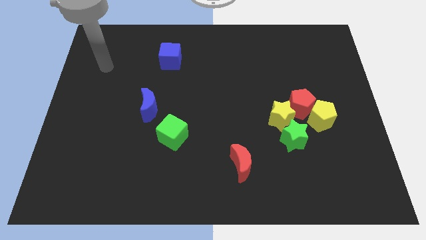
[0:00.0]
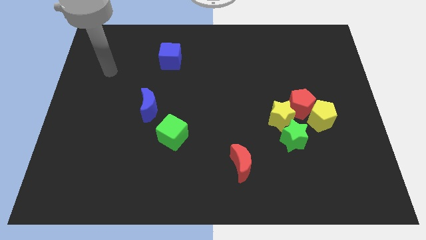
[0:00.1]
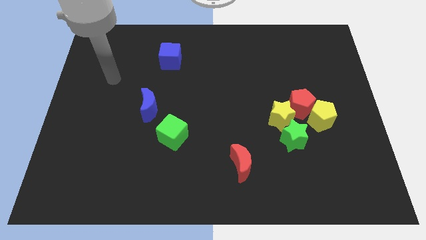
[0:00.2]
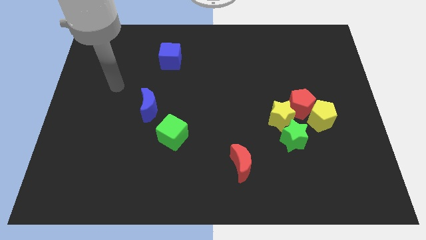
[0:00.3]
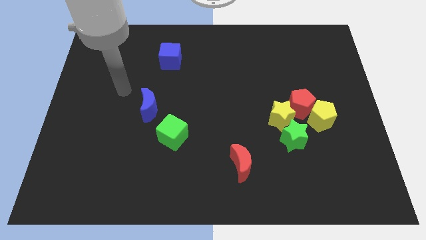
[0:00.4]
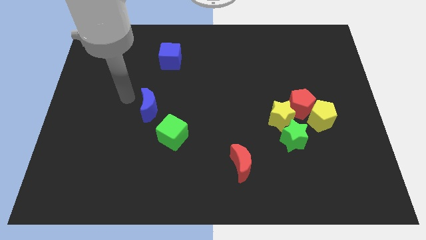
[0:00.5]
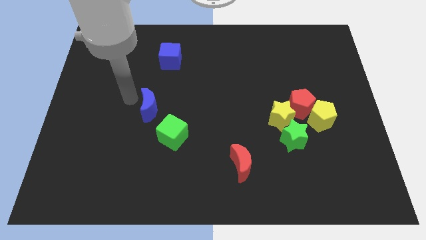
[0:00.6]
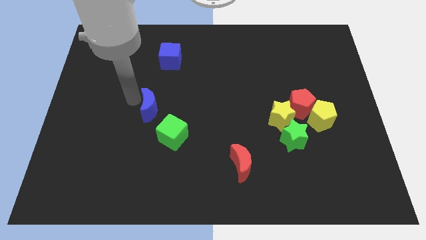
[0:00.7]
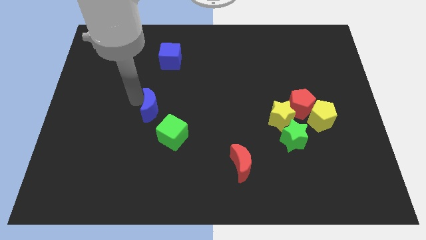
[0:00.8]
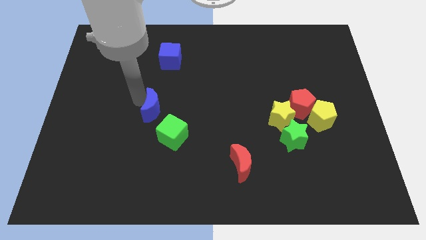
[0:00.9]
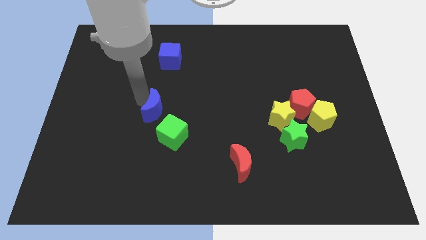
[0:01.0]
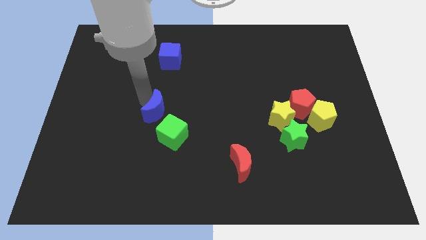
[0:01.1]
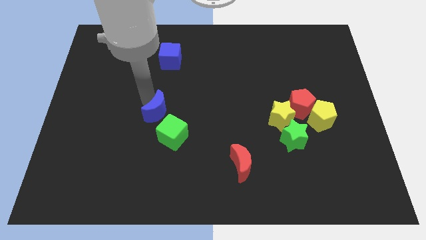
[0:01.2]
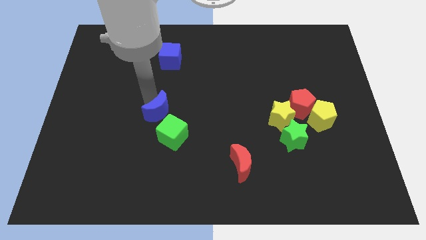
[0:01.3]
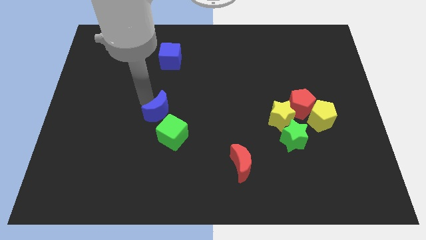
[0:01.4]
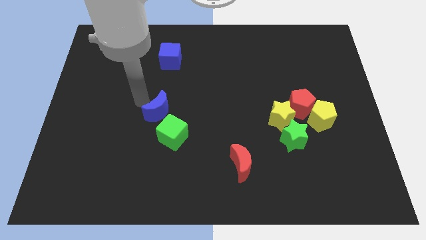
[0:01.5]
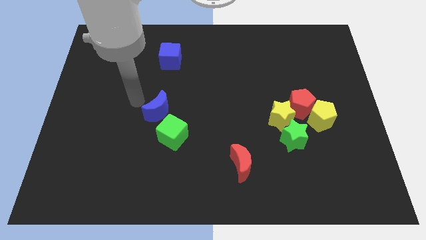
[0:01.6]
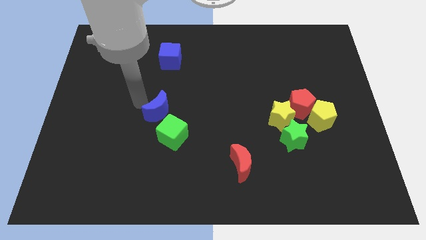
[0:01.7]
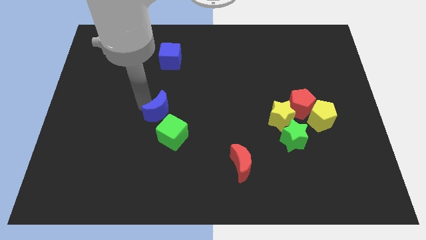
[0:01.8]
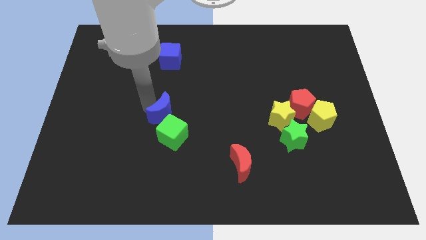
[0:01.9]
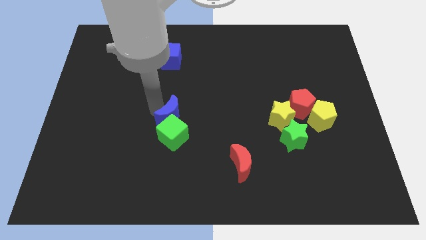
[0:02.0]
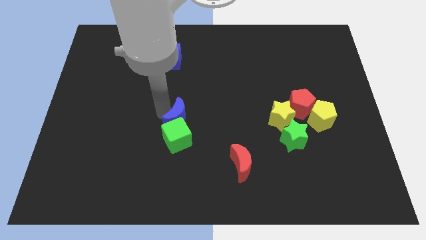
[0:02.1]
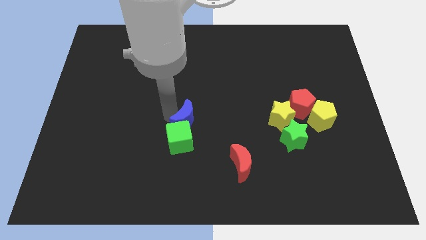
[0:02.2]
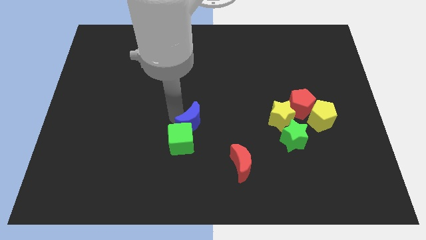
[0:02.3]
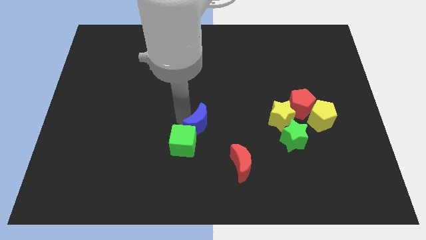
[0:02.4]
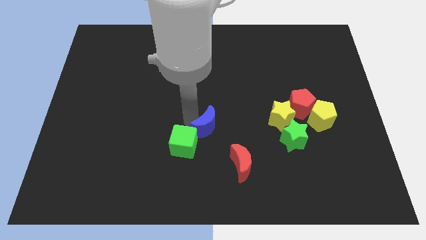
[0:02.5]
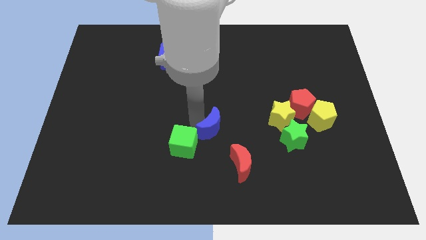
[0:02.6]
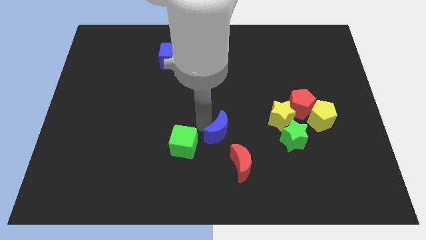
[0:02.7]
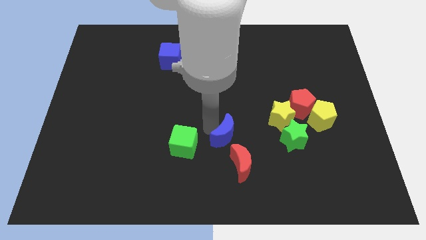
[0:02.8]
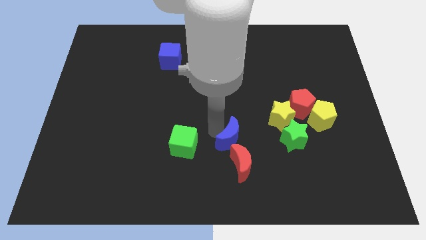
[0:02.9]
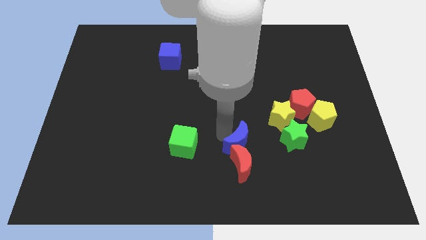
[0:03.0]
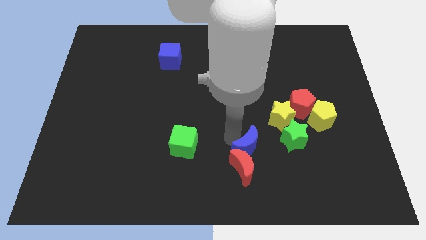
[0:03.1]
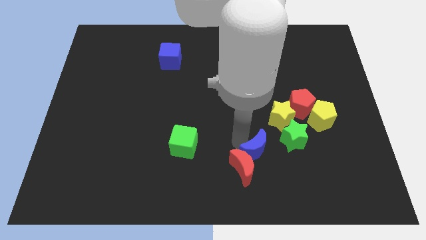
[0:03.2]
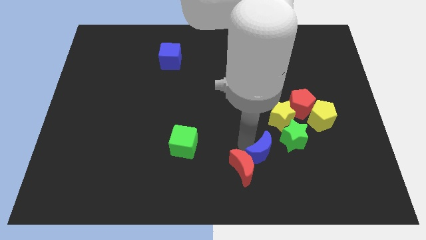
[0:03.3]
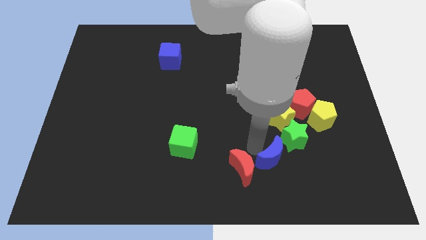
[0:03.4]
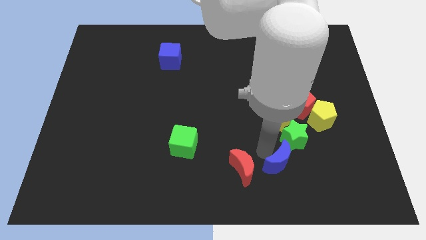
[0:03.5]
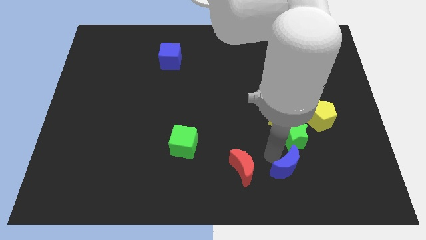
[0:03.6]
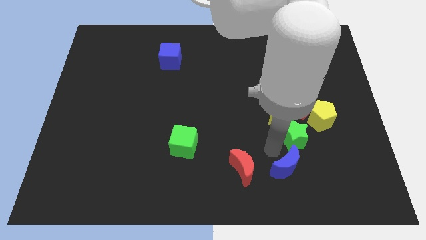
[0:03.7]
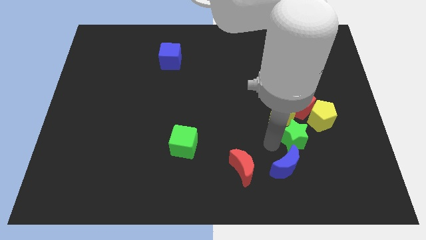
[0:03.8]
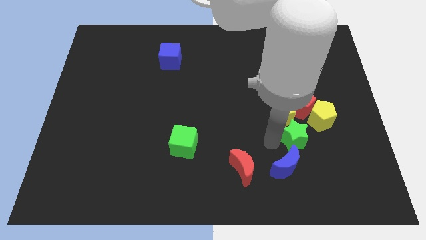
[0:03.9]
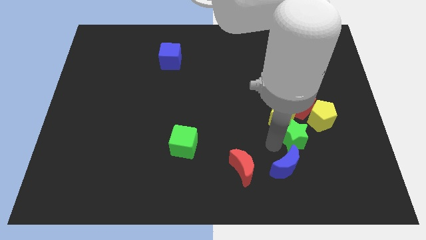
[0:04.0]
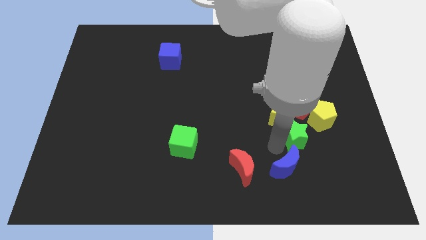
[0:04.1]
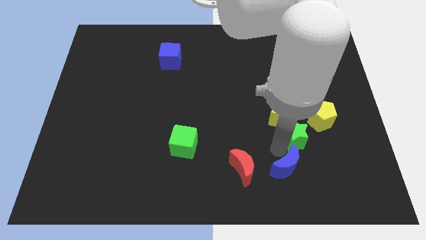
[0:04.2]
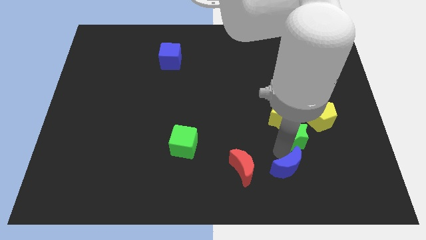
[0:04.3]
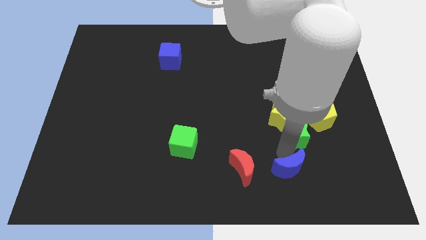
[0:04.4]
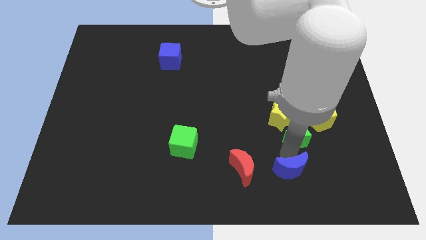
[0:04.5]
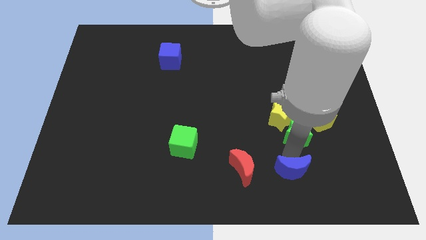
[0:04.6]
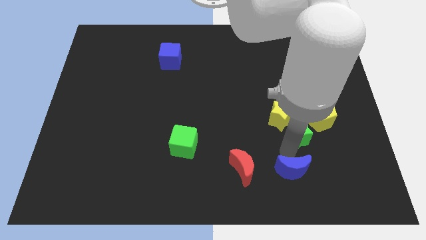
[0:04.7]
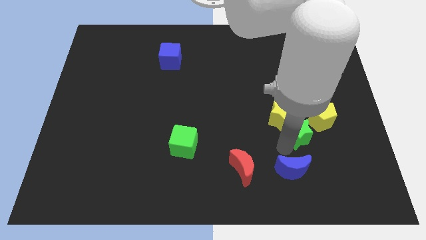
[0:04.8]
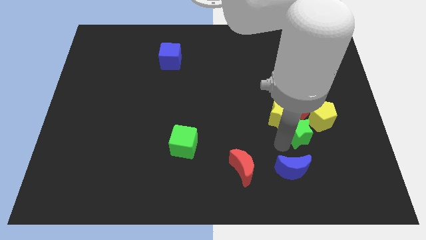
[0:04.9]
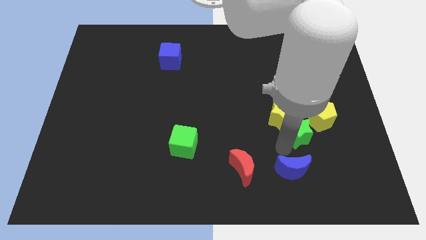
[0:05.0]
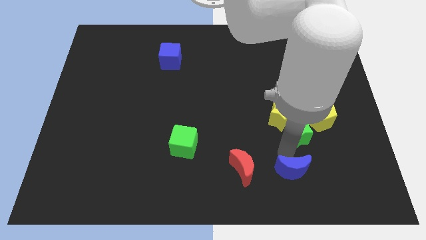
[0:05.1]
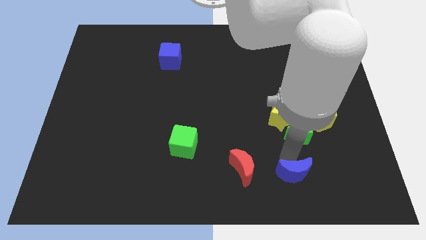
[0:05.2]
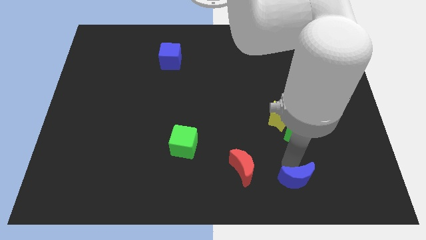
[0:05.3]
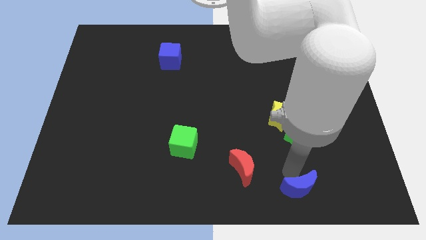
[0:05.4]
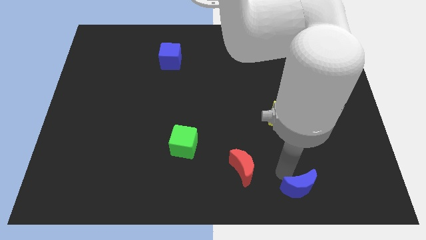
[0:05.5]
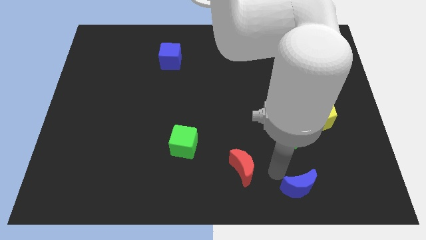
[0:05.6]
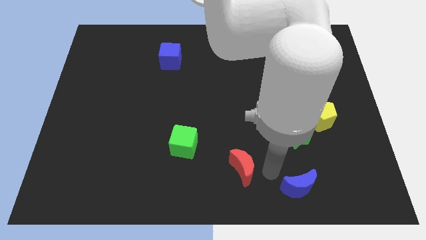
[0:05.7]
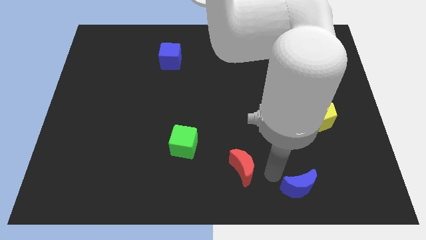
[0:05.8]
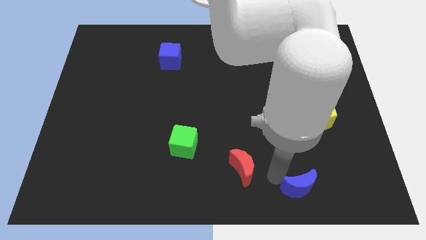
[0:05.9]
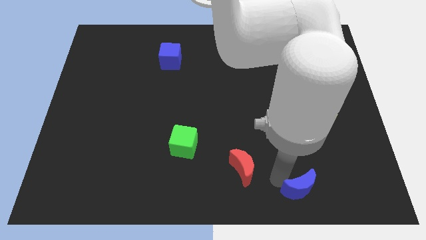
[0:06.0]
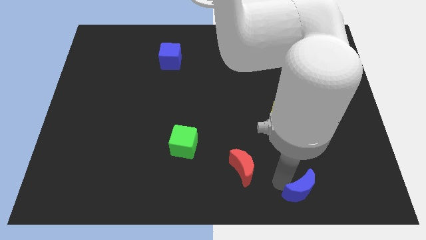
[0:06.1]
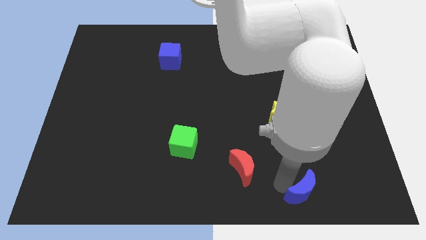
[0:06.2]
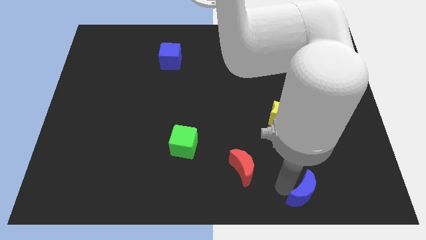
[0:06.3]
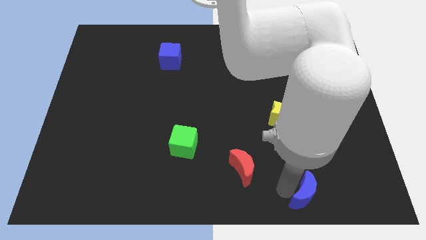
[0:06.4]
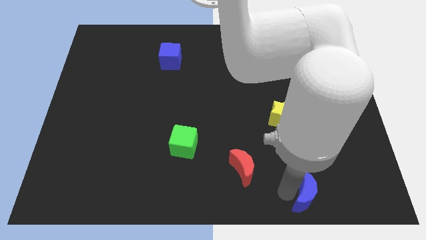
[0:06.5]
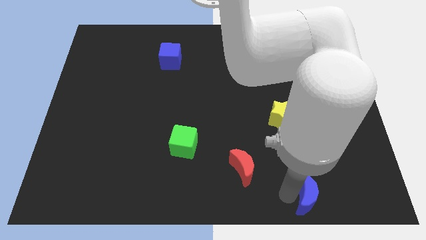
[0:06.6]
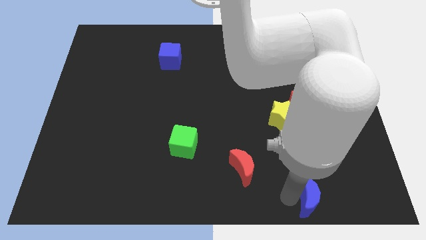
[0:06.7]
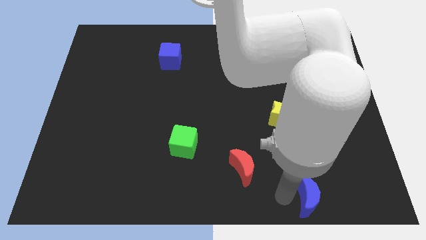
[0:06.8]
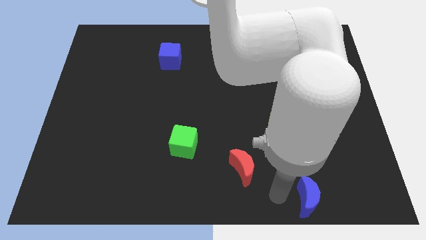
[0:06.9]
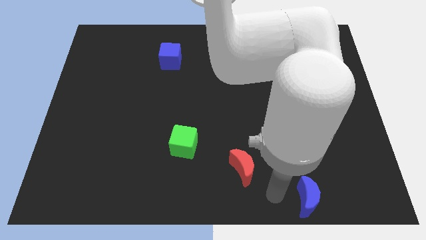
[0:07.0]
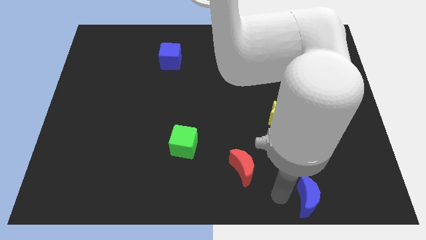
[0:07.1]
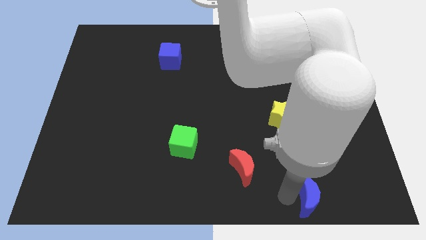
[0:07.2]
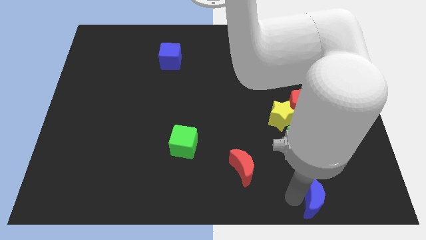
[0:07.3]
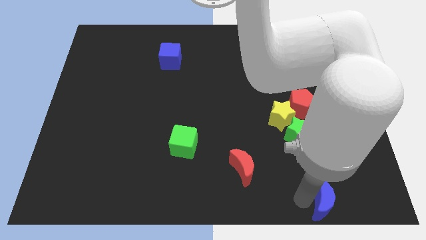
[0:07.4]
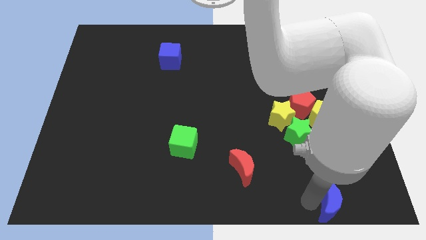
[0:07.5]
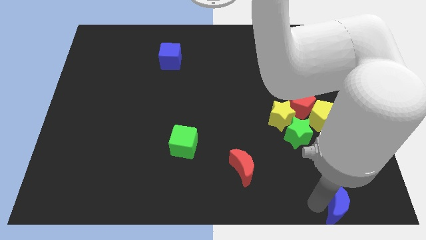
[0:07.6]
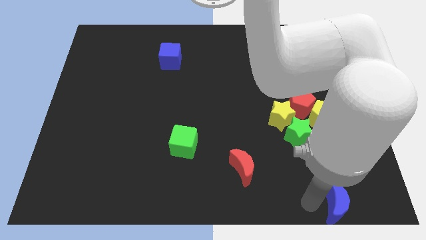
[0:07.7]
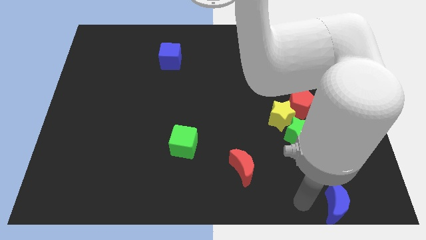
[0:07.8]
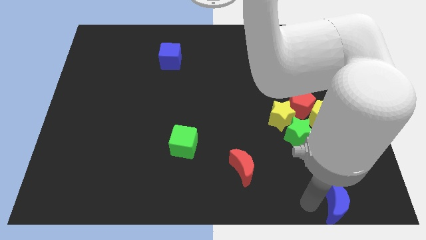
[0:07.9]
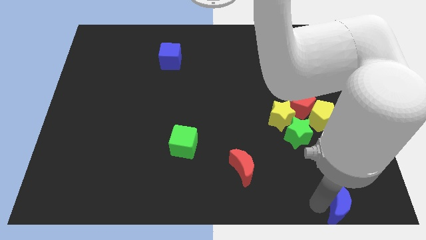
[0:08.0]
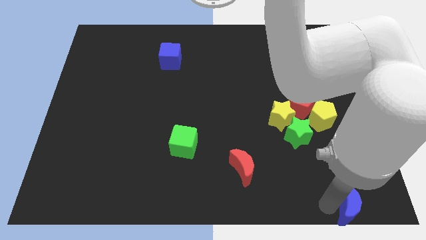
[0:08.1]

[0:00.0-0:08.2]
push the blue moon to the lower right corner
